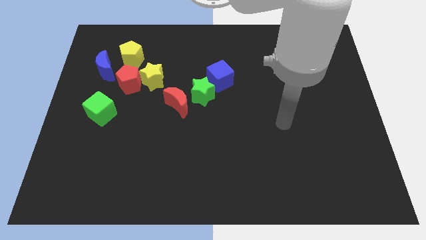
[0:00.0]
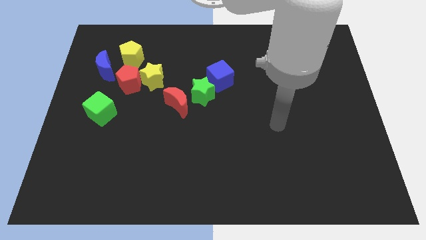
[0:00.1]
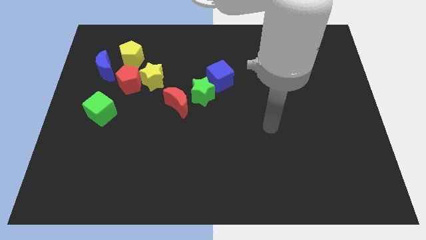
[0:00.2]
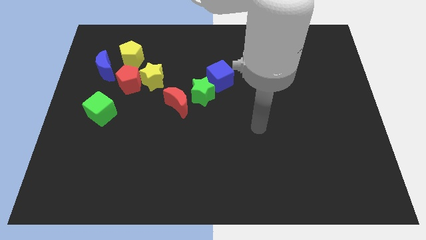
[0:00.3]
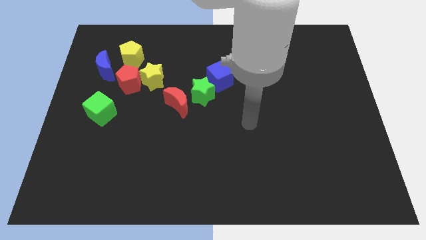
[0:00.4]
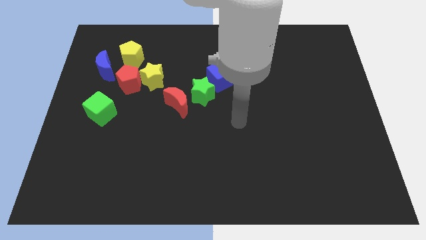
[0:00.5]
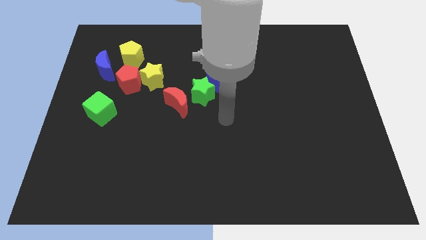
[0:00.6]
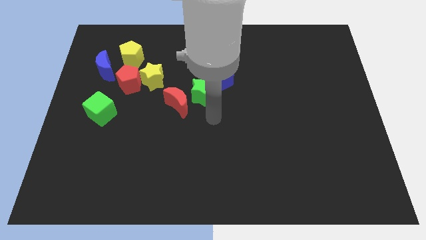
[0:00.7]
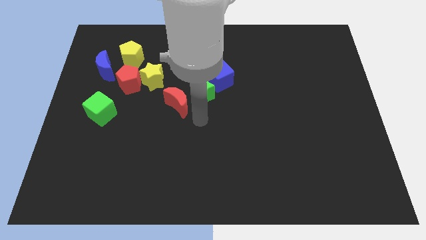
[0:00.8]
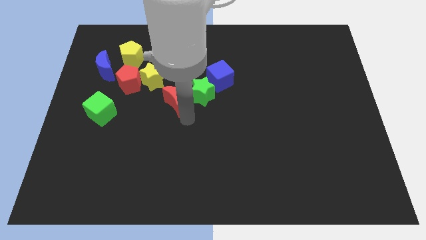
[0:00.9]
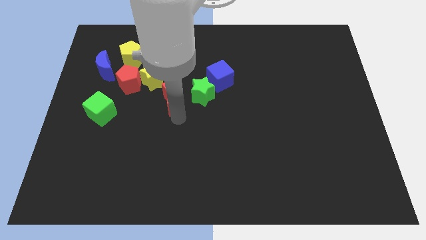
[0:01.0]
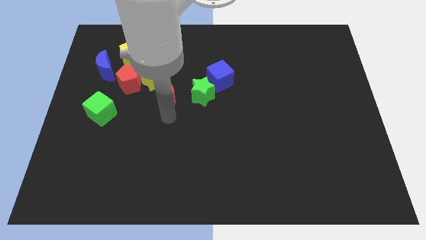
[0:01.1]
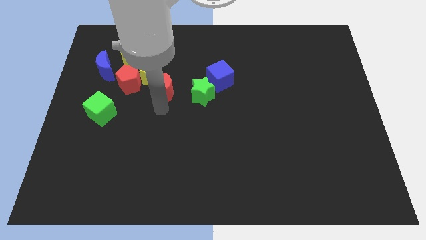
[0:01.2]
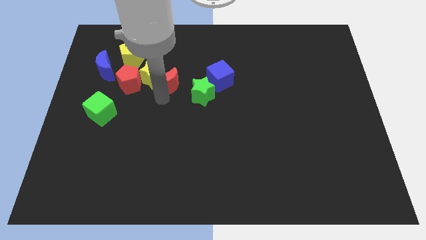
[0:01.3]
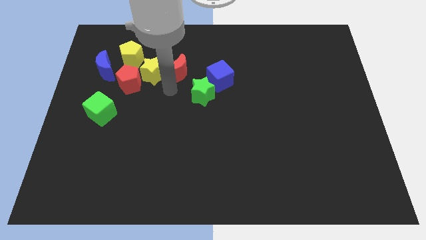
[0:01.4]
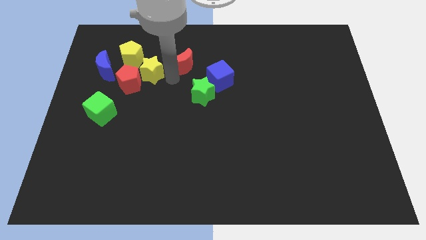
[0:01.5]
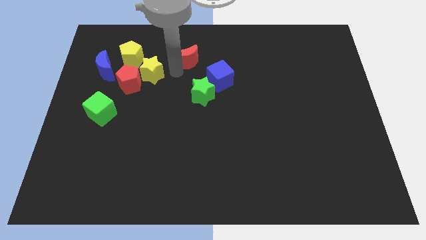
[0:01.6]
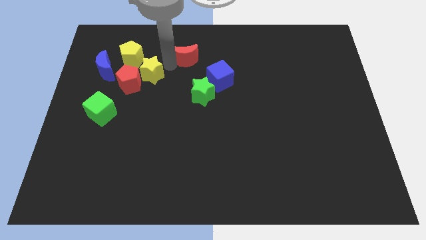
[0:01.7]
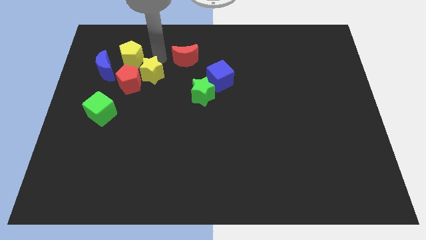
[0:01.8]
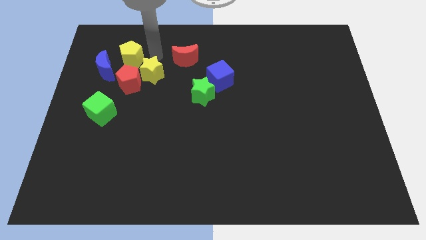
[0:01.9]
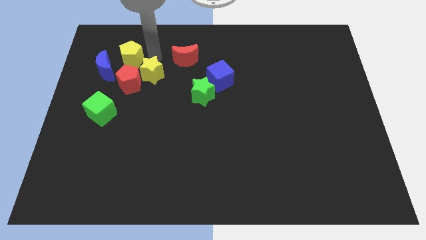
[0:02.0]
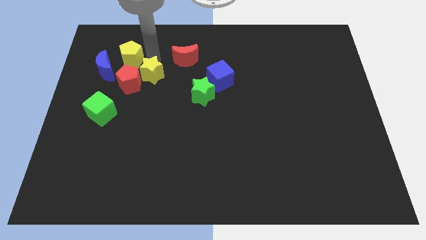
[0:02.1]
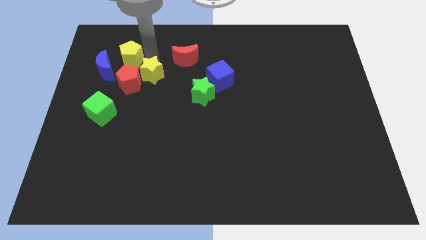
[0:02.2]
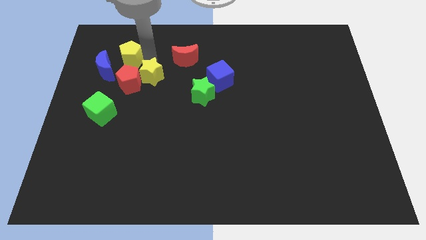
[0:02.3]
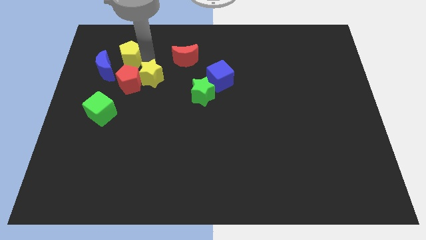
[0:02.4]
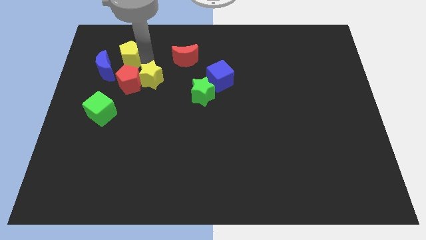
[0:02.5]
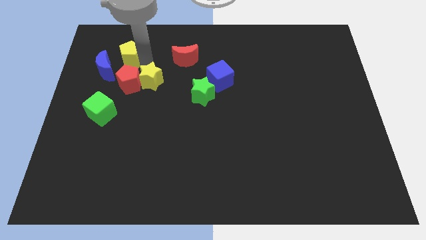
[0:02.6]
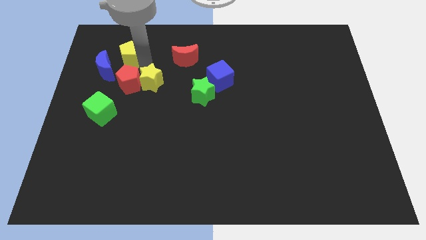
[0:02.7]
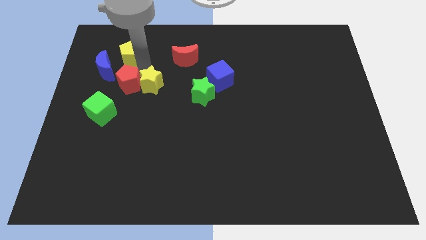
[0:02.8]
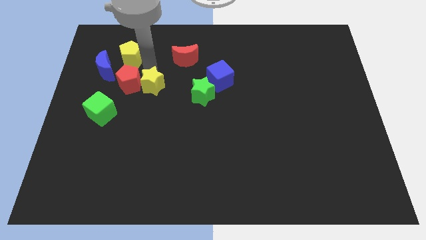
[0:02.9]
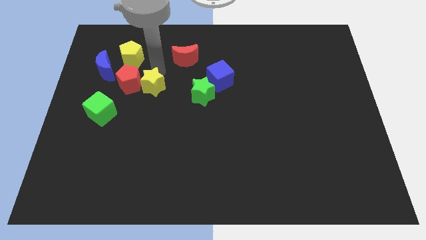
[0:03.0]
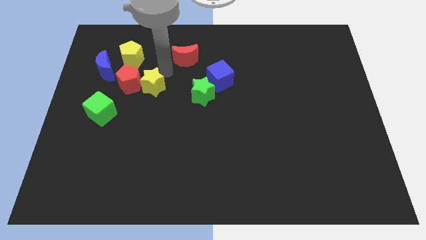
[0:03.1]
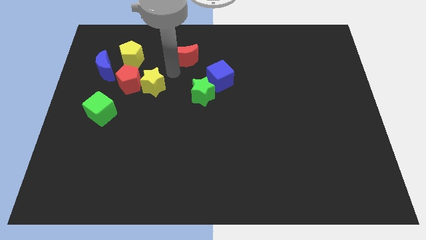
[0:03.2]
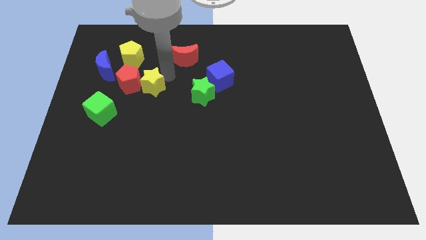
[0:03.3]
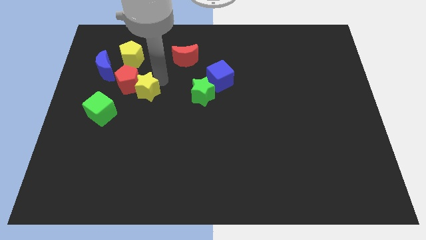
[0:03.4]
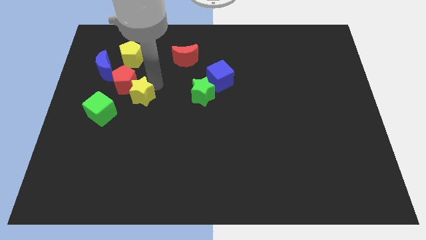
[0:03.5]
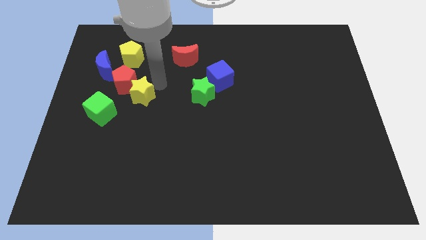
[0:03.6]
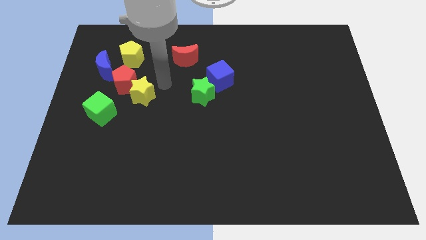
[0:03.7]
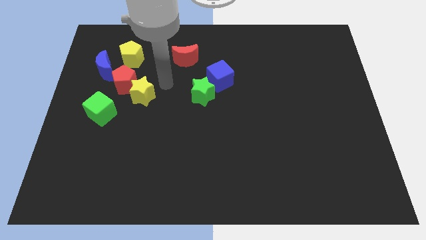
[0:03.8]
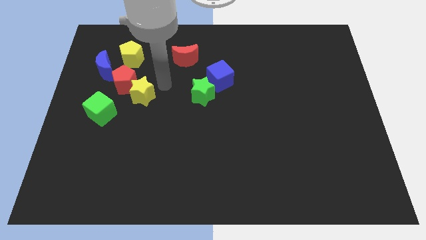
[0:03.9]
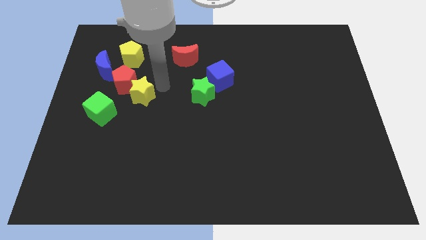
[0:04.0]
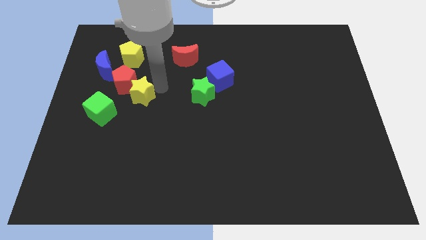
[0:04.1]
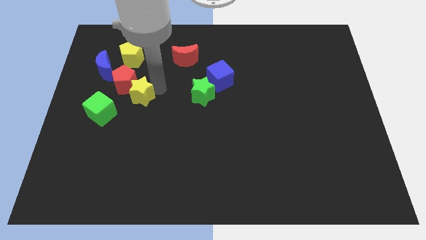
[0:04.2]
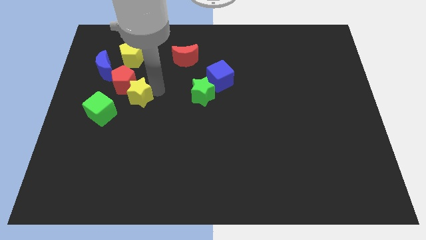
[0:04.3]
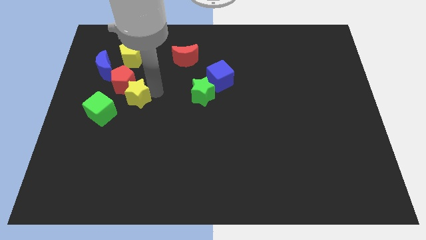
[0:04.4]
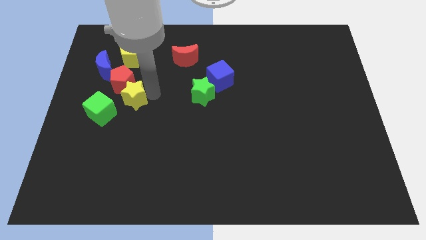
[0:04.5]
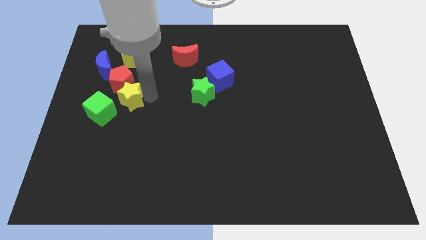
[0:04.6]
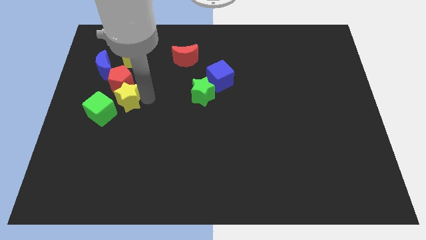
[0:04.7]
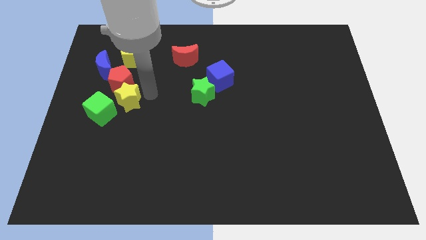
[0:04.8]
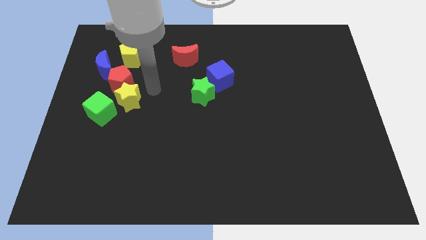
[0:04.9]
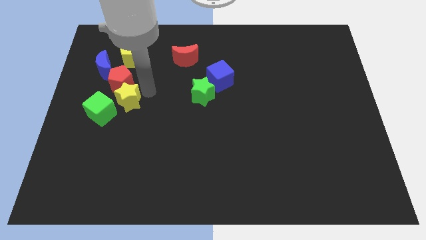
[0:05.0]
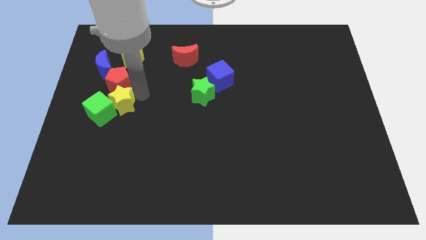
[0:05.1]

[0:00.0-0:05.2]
push the yellow star towards the green cube

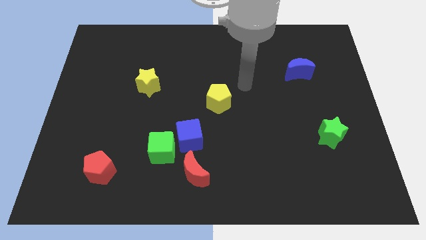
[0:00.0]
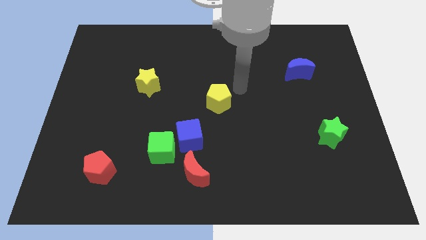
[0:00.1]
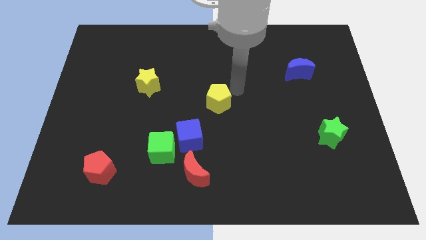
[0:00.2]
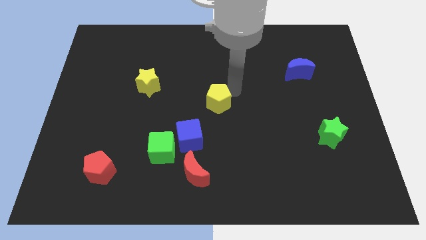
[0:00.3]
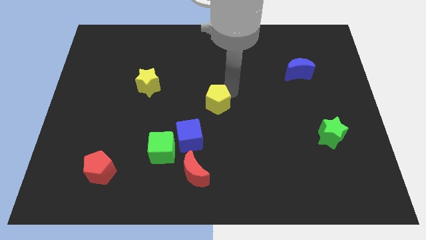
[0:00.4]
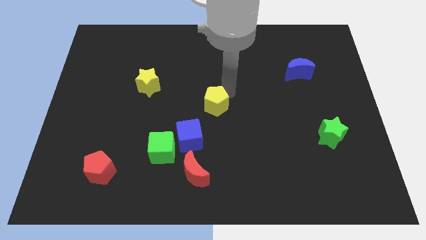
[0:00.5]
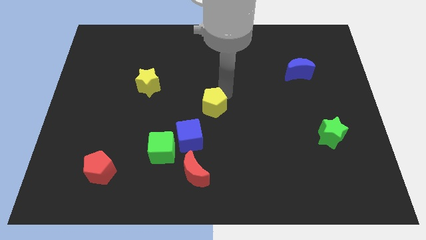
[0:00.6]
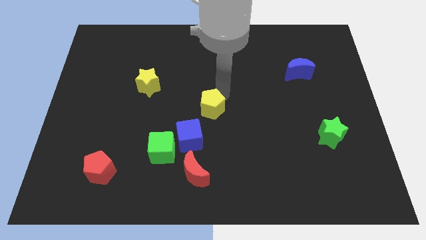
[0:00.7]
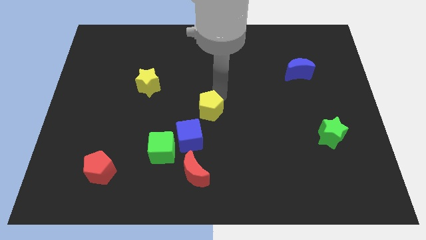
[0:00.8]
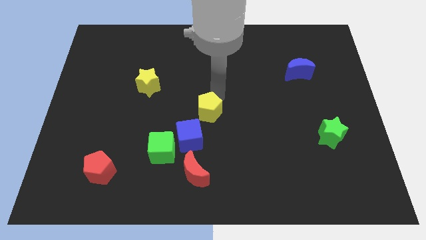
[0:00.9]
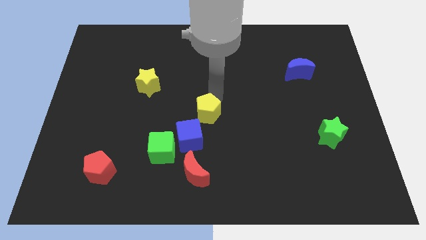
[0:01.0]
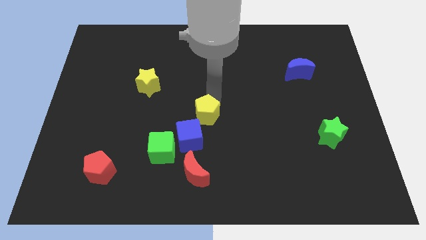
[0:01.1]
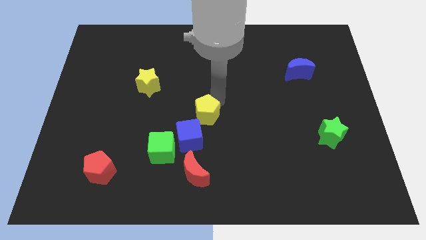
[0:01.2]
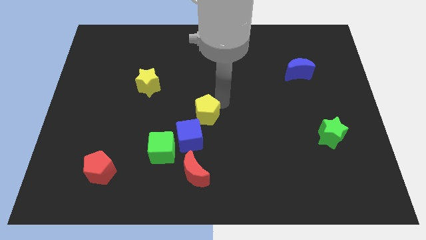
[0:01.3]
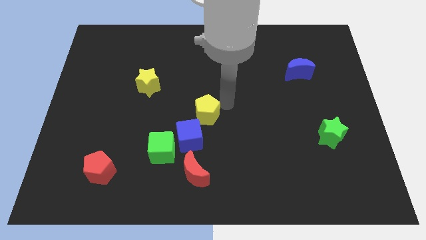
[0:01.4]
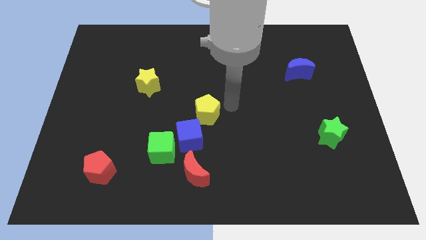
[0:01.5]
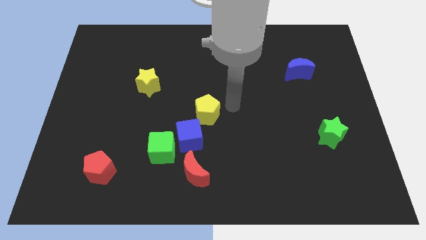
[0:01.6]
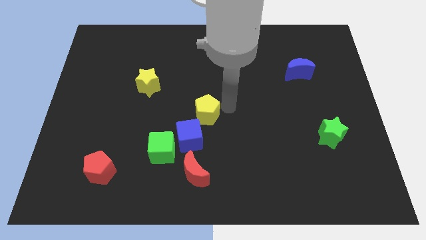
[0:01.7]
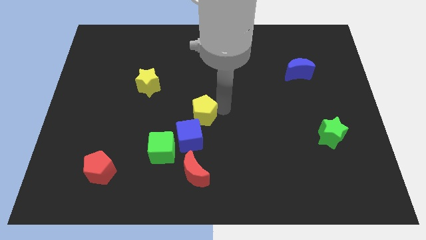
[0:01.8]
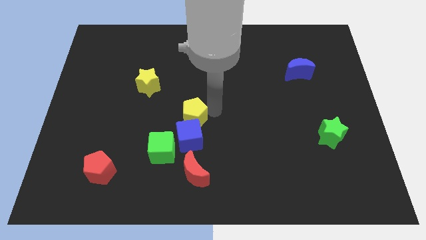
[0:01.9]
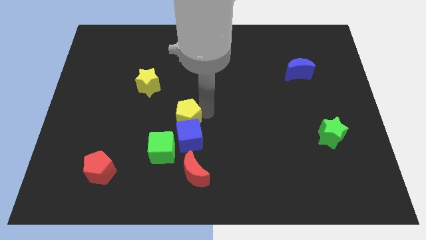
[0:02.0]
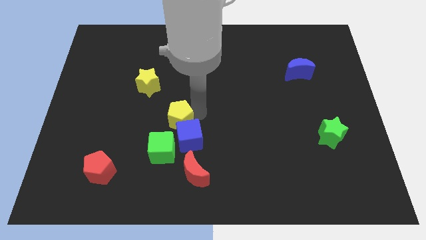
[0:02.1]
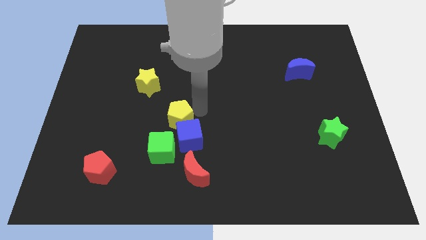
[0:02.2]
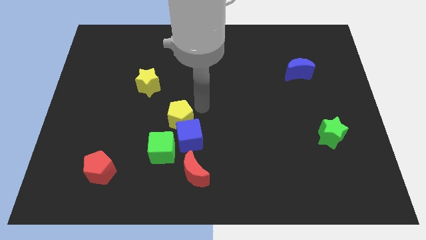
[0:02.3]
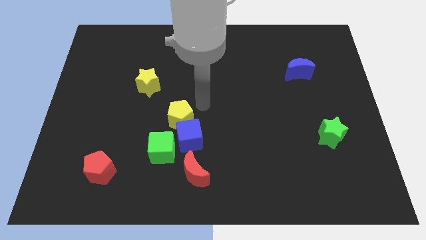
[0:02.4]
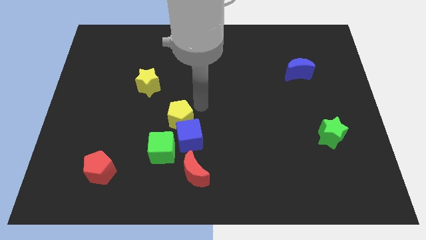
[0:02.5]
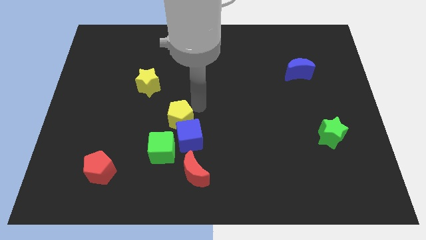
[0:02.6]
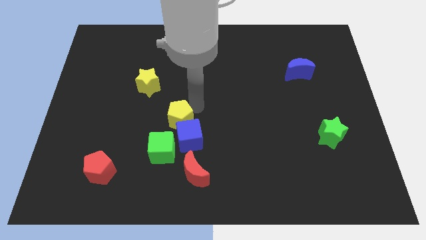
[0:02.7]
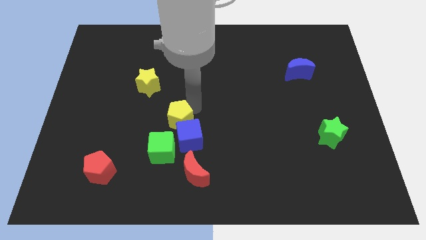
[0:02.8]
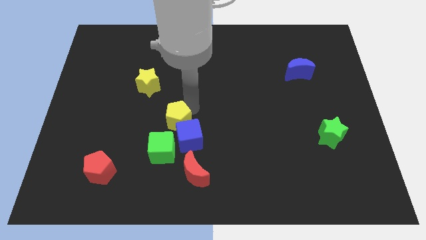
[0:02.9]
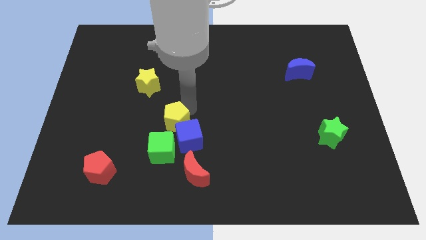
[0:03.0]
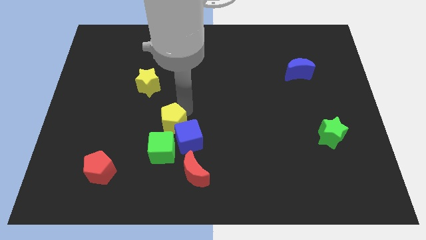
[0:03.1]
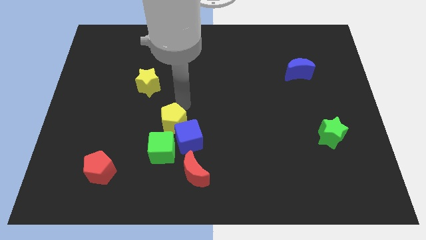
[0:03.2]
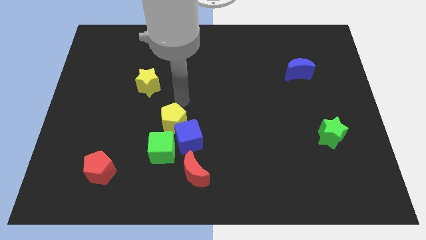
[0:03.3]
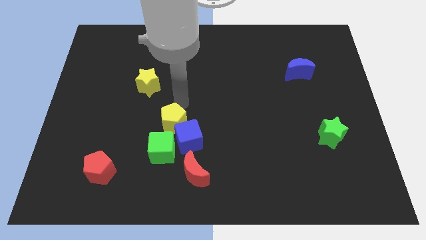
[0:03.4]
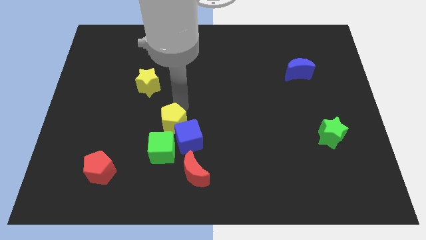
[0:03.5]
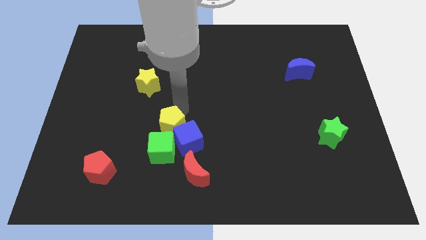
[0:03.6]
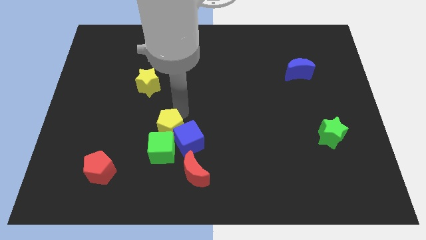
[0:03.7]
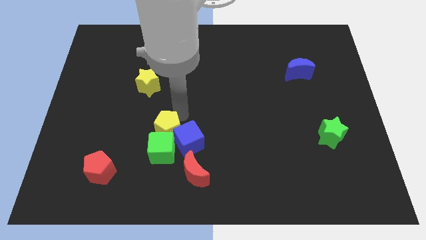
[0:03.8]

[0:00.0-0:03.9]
push the yellow pentagon to the green cube
